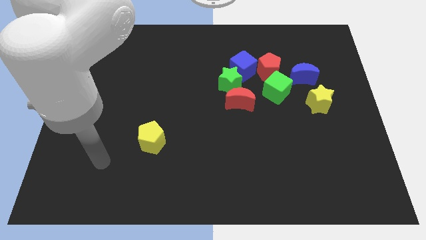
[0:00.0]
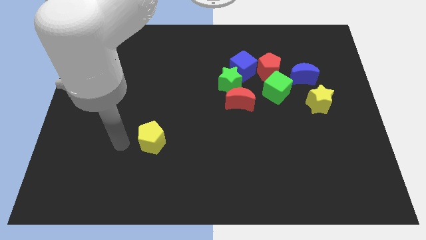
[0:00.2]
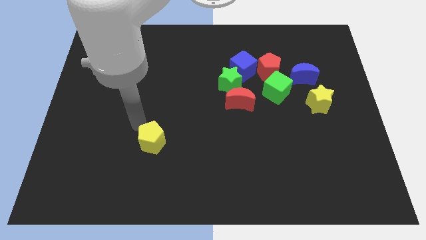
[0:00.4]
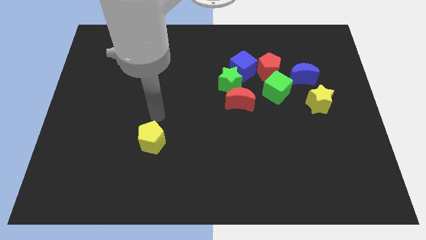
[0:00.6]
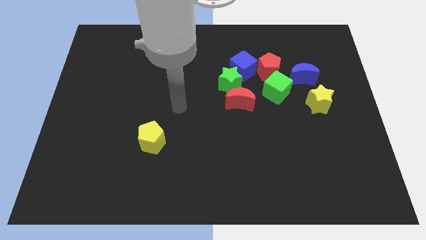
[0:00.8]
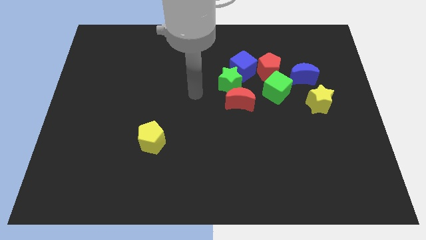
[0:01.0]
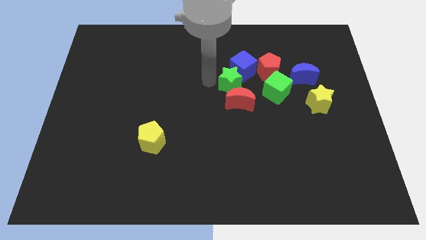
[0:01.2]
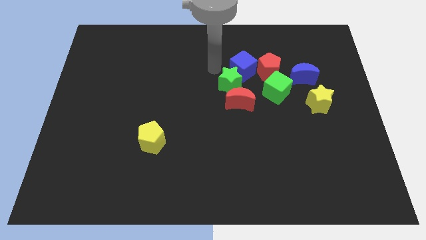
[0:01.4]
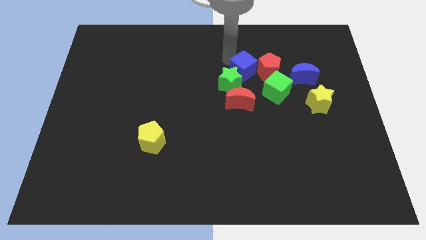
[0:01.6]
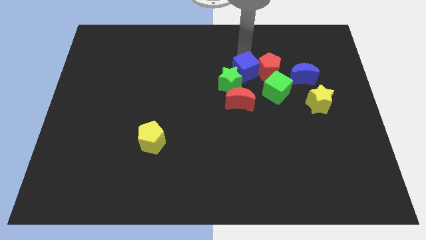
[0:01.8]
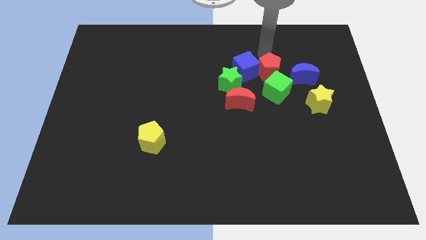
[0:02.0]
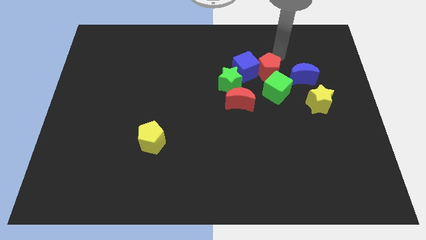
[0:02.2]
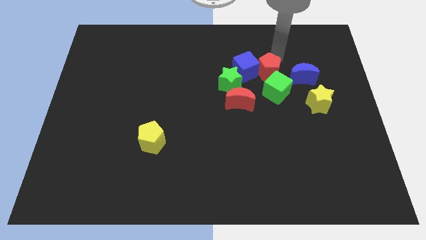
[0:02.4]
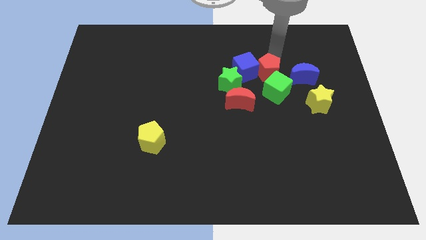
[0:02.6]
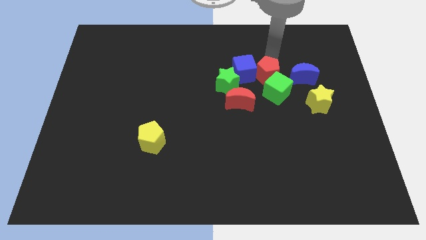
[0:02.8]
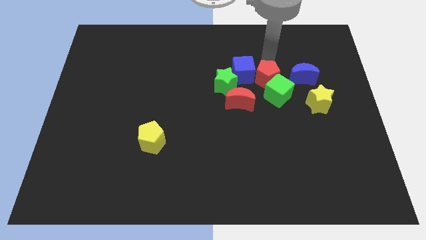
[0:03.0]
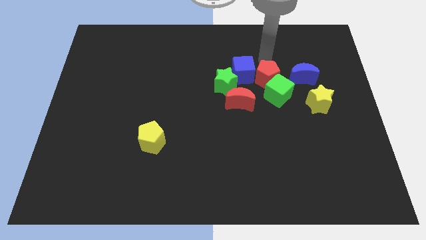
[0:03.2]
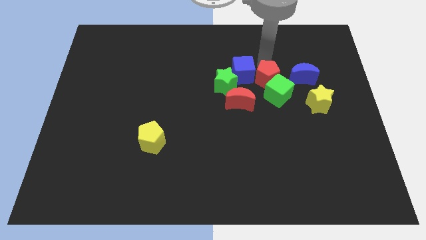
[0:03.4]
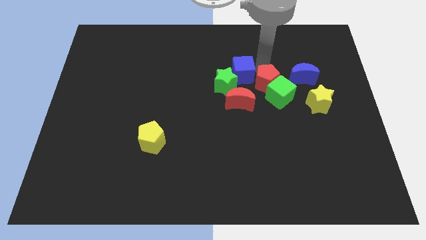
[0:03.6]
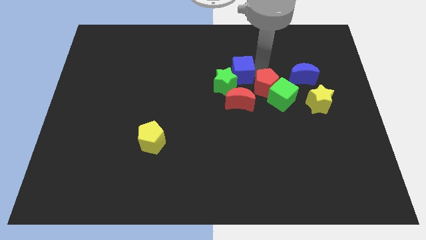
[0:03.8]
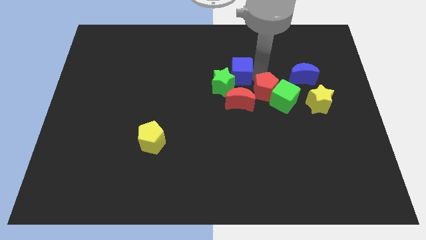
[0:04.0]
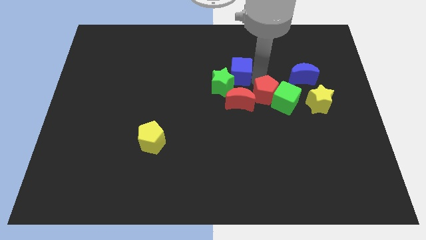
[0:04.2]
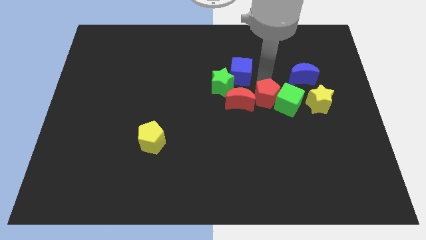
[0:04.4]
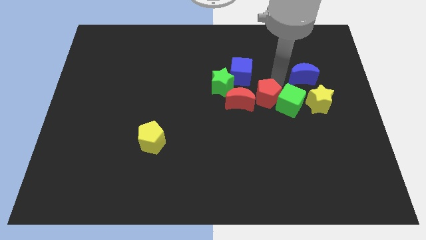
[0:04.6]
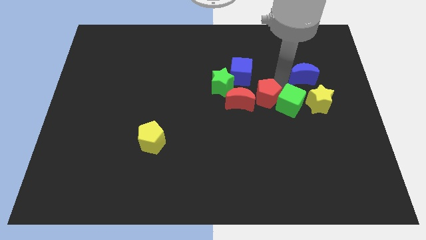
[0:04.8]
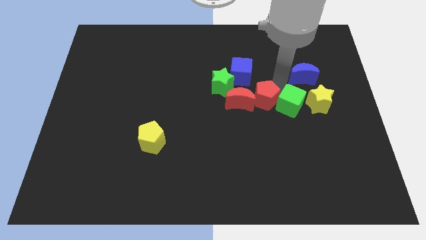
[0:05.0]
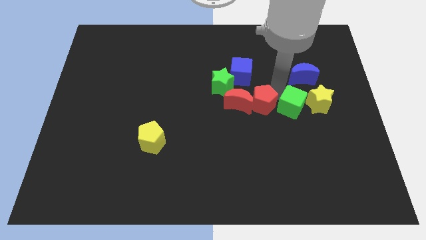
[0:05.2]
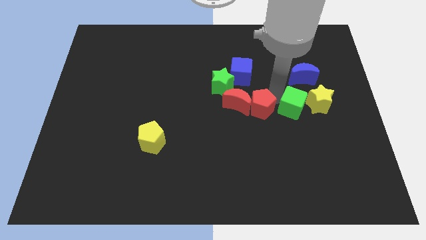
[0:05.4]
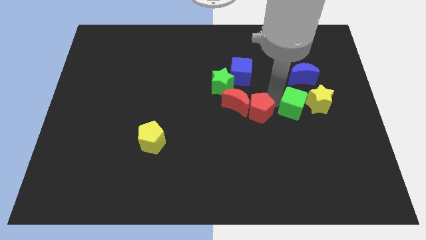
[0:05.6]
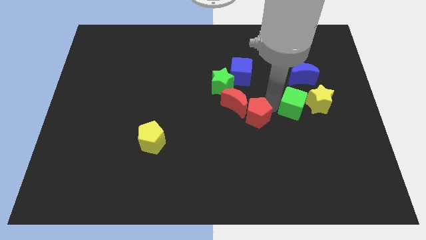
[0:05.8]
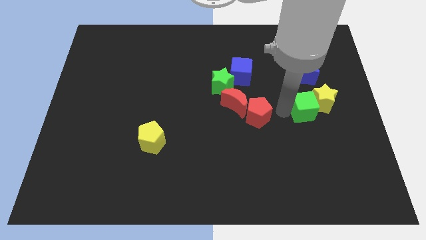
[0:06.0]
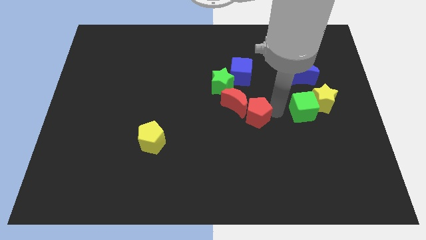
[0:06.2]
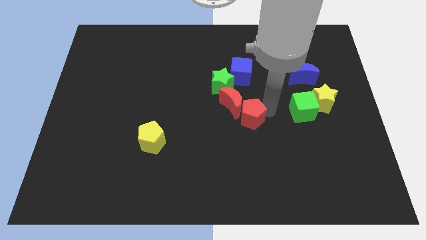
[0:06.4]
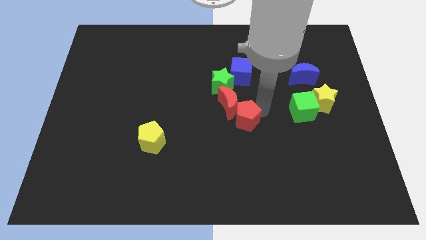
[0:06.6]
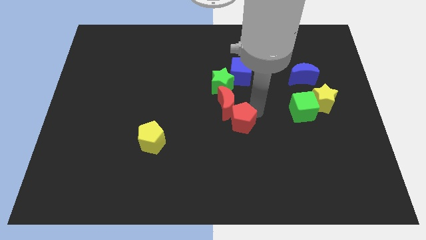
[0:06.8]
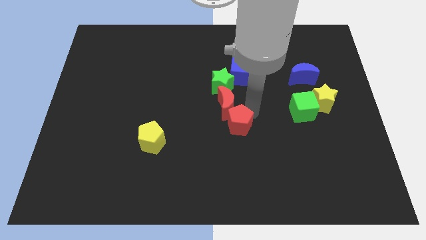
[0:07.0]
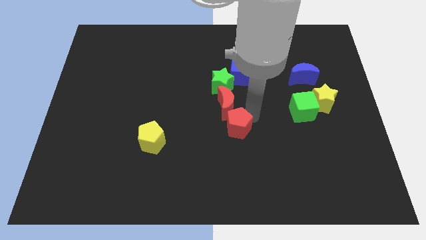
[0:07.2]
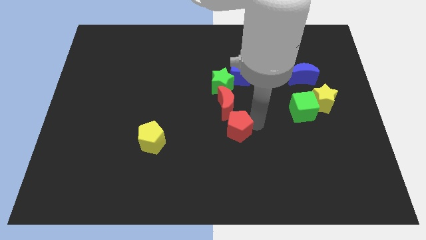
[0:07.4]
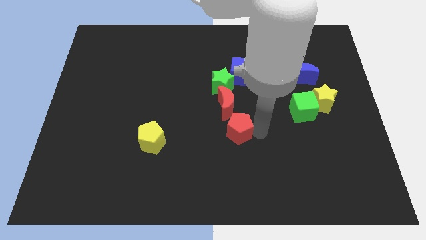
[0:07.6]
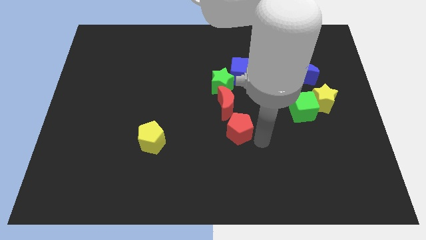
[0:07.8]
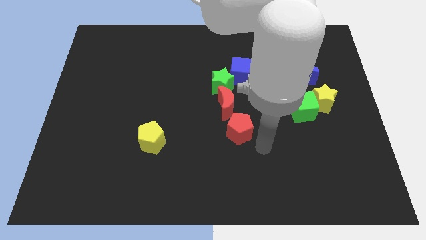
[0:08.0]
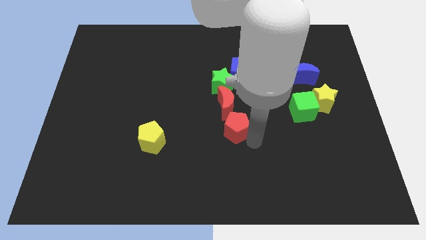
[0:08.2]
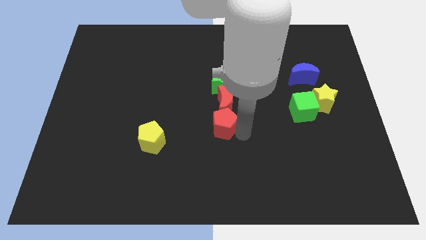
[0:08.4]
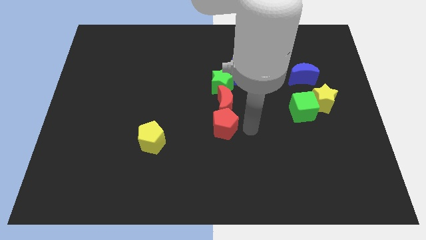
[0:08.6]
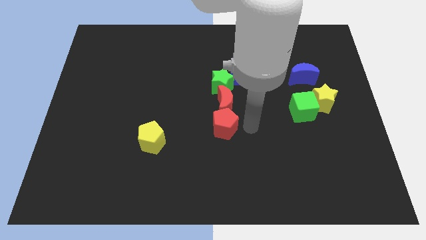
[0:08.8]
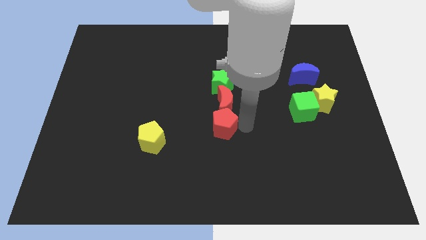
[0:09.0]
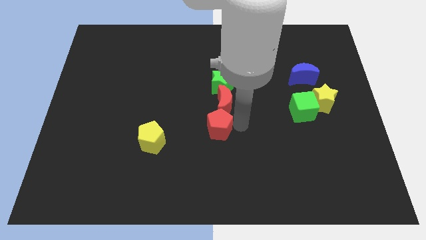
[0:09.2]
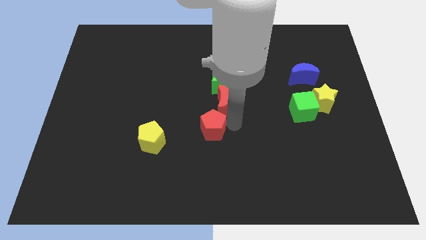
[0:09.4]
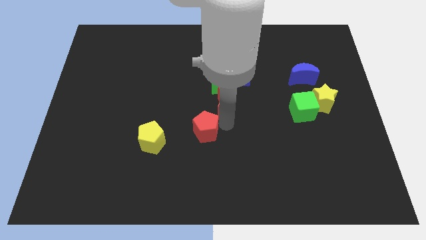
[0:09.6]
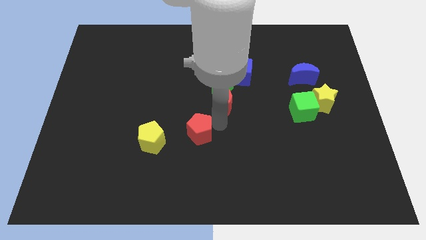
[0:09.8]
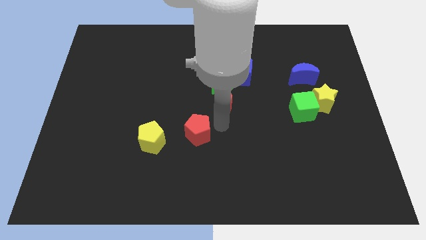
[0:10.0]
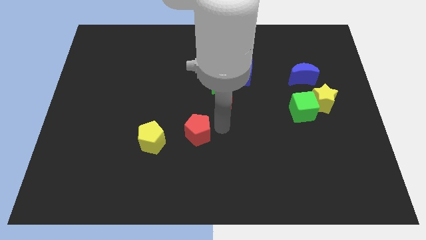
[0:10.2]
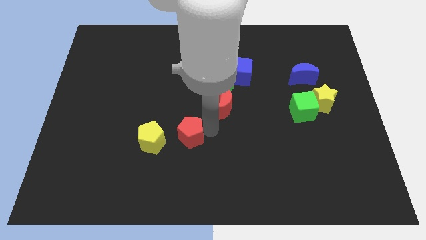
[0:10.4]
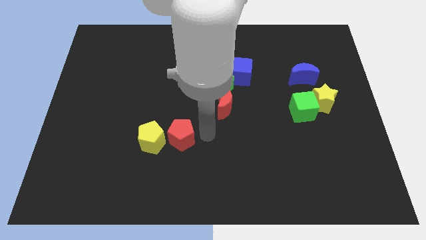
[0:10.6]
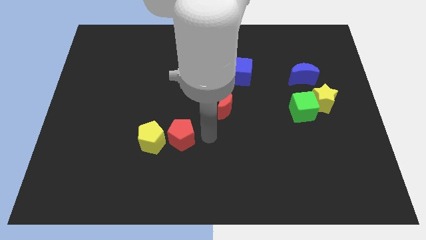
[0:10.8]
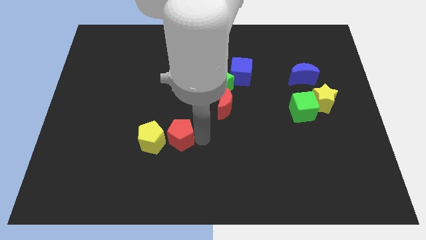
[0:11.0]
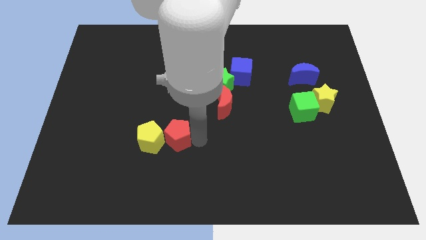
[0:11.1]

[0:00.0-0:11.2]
put the red pentagon next to the yellow pentagon

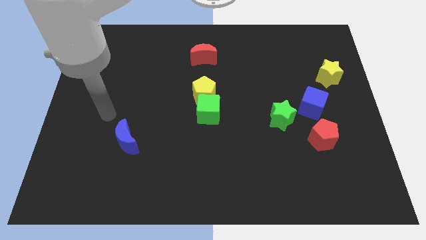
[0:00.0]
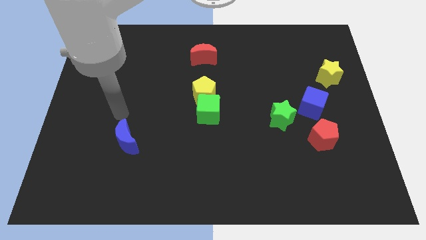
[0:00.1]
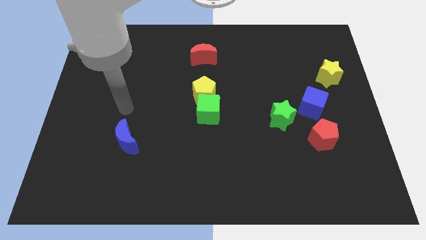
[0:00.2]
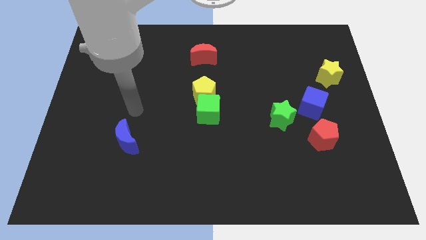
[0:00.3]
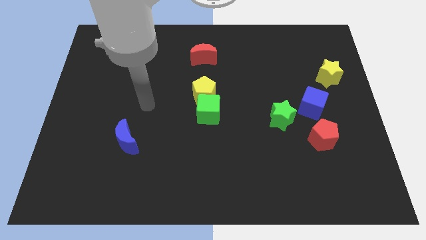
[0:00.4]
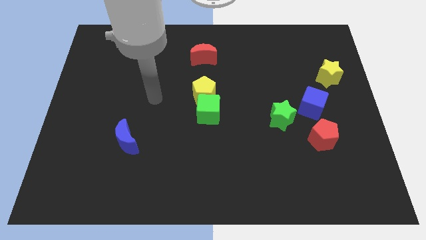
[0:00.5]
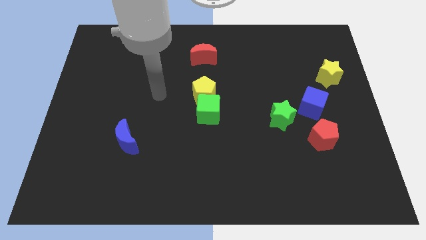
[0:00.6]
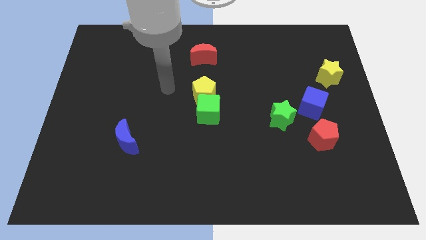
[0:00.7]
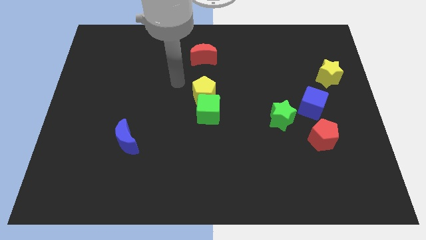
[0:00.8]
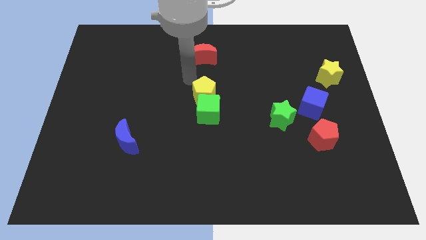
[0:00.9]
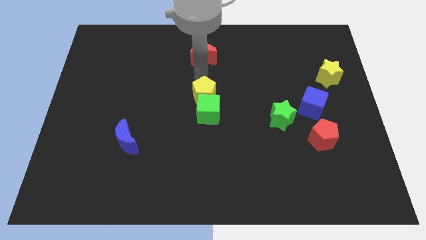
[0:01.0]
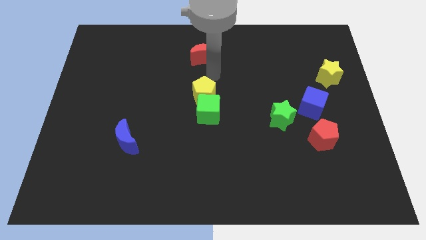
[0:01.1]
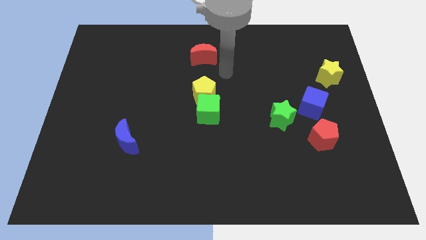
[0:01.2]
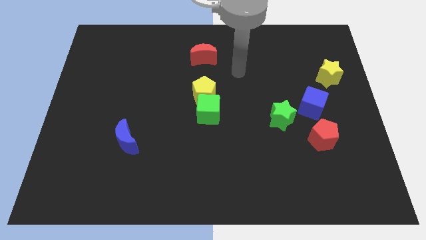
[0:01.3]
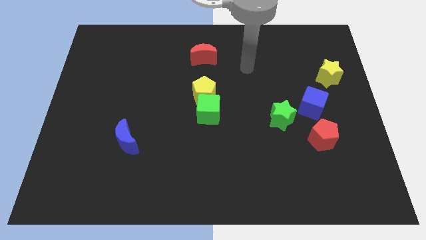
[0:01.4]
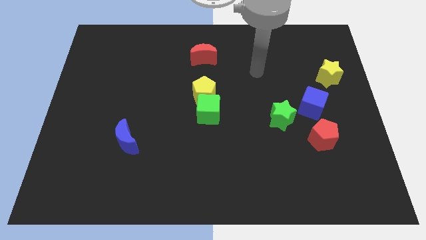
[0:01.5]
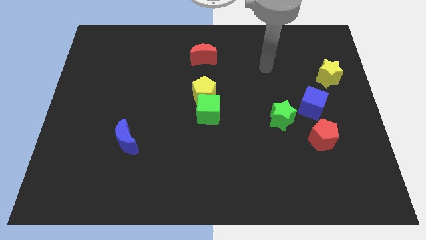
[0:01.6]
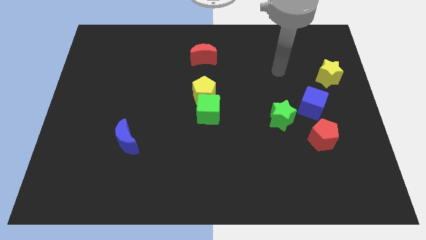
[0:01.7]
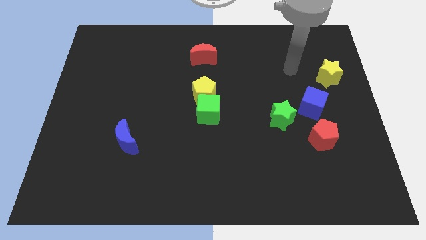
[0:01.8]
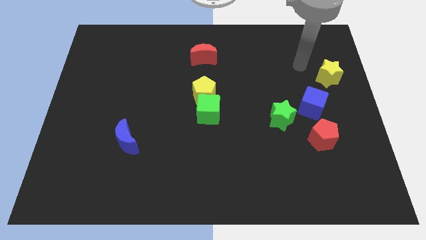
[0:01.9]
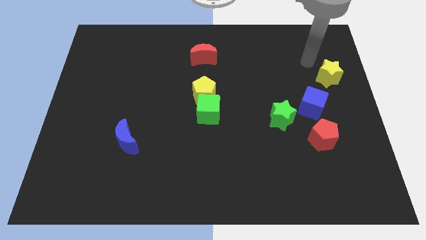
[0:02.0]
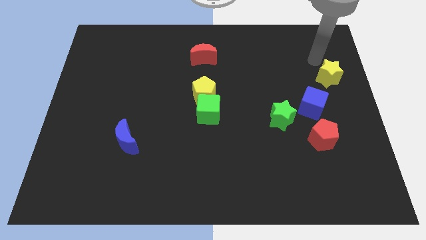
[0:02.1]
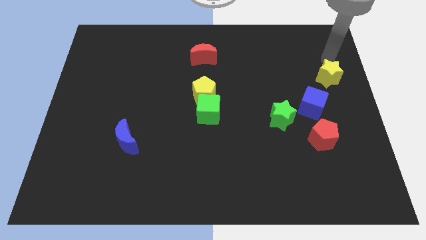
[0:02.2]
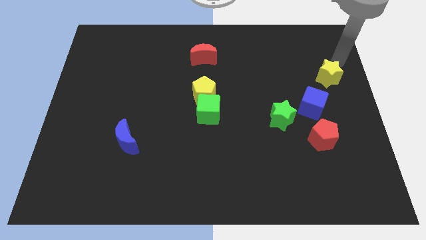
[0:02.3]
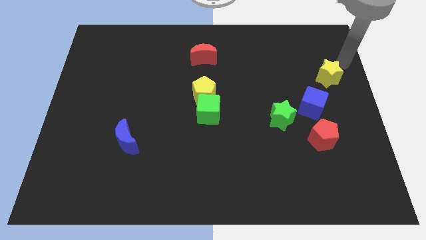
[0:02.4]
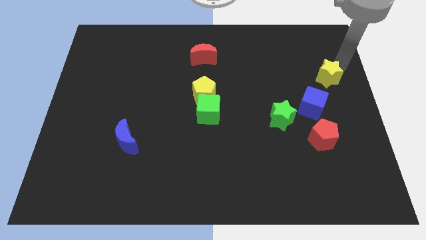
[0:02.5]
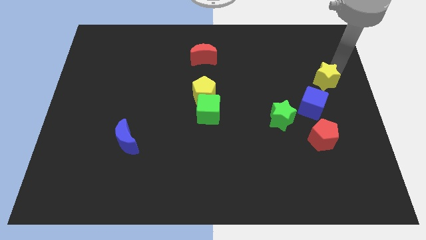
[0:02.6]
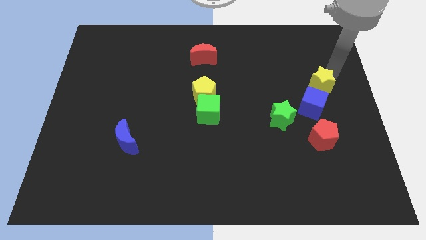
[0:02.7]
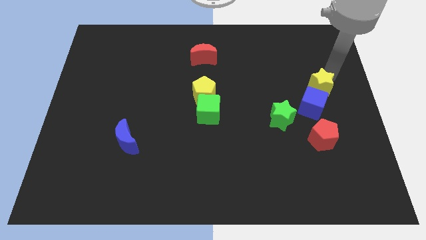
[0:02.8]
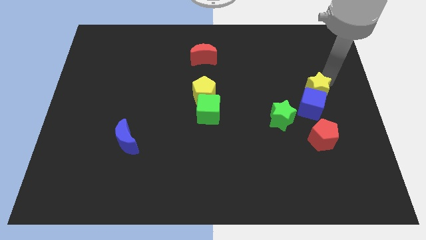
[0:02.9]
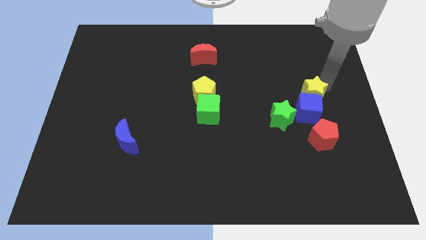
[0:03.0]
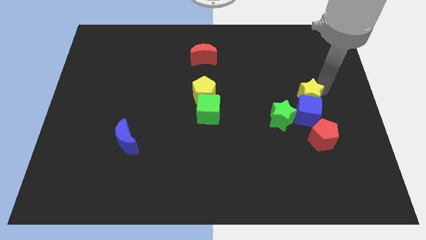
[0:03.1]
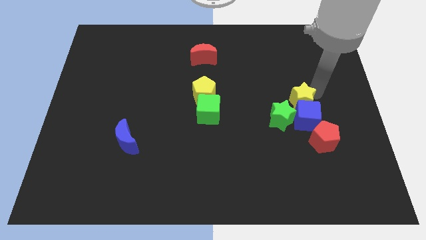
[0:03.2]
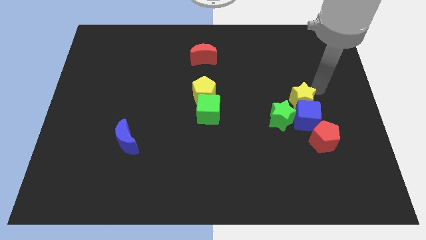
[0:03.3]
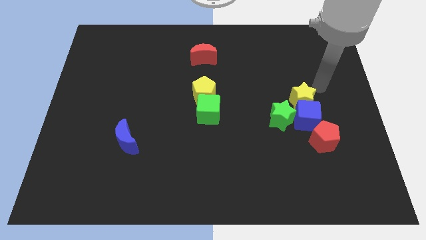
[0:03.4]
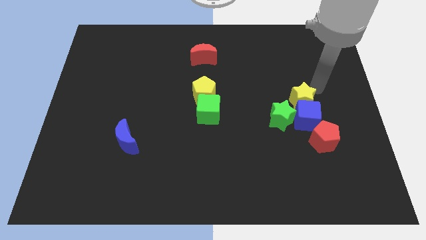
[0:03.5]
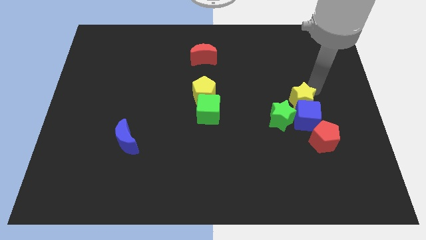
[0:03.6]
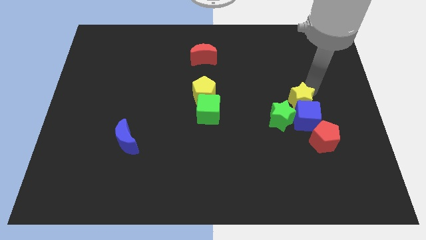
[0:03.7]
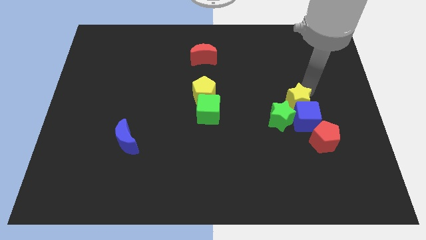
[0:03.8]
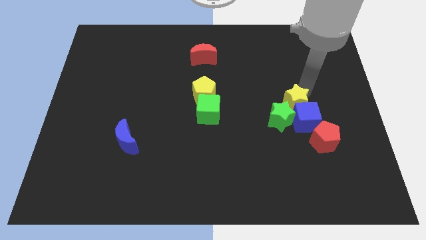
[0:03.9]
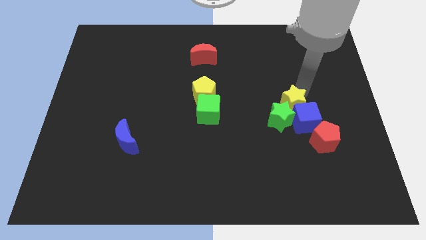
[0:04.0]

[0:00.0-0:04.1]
push the yellow star to the green star
